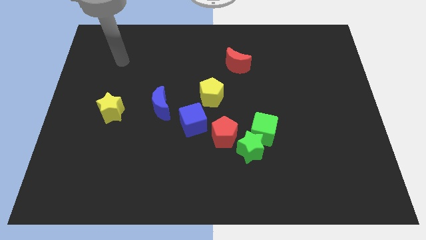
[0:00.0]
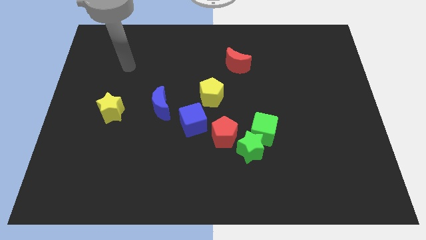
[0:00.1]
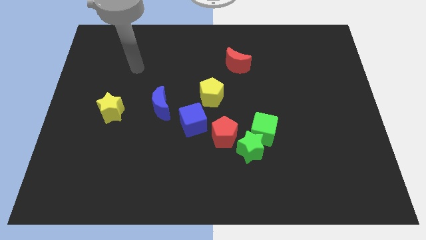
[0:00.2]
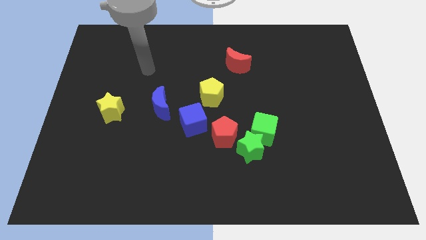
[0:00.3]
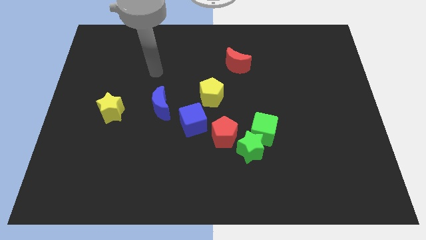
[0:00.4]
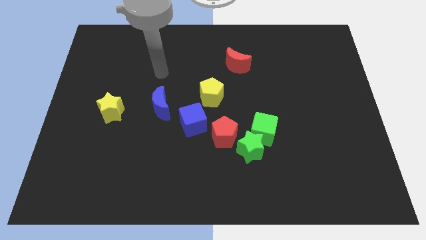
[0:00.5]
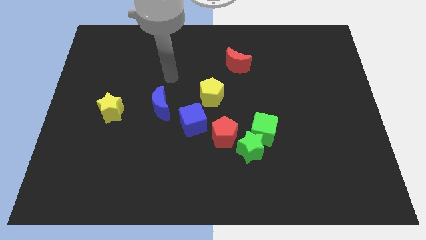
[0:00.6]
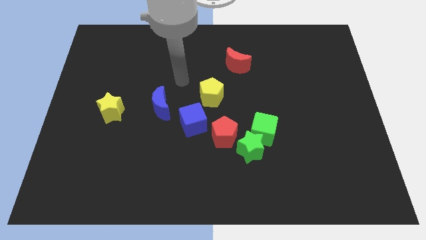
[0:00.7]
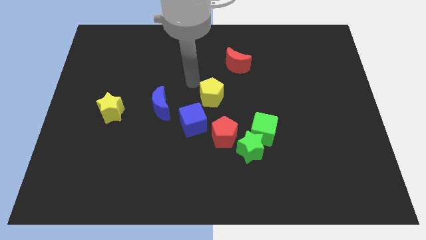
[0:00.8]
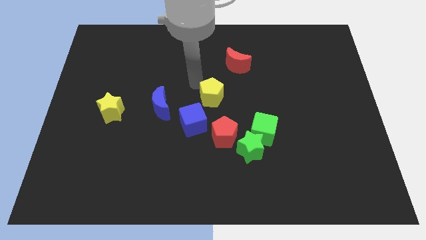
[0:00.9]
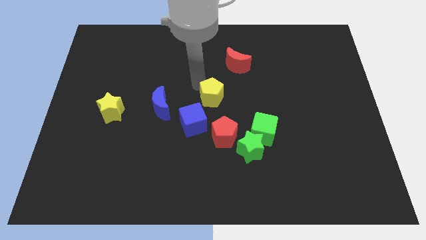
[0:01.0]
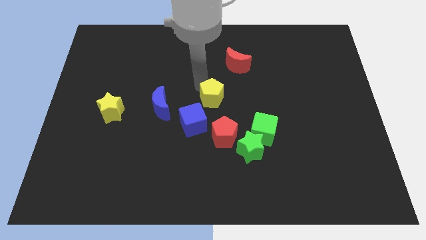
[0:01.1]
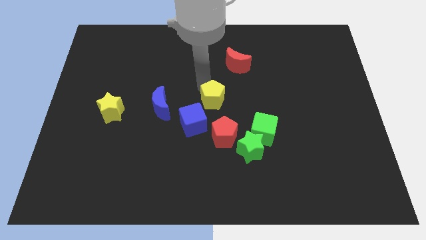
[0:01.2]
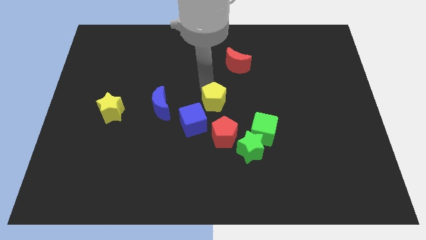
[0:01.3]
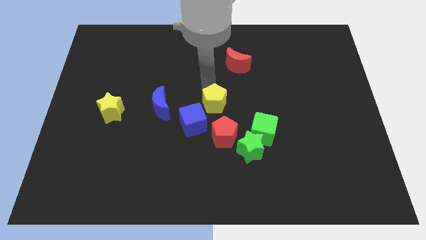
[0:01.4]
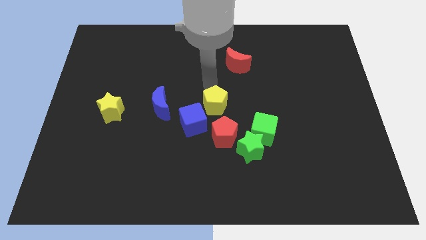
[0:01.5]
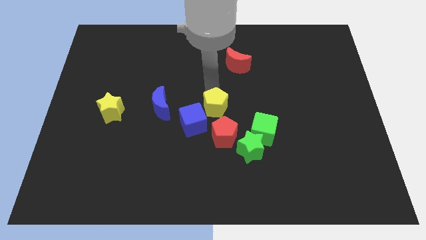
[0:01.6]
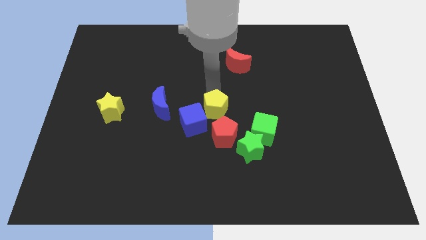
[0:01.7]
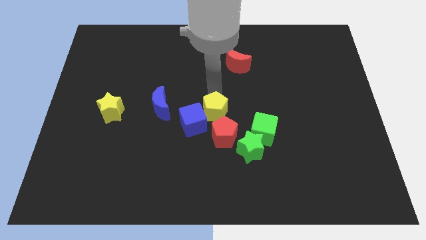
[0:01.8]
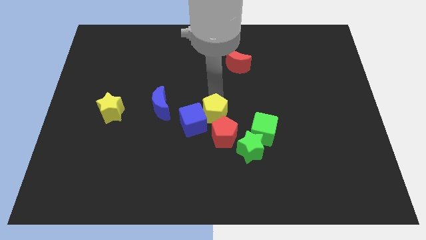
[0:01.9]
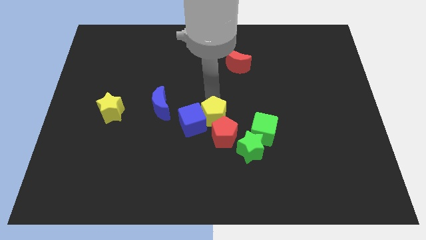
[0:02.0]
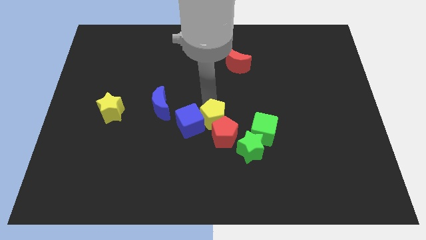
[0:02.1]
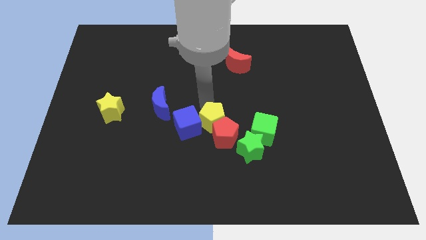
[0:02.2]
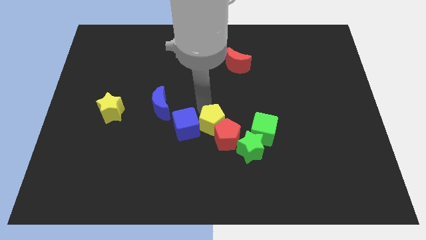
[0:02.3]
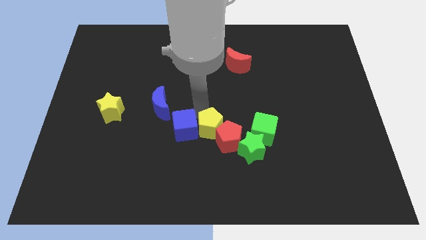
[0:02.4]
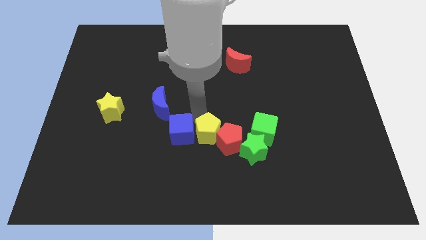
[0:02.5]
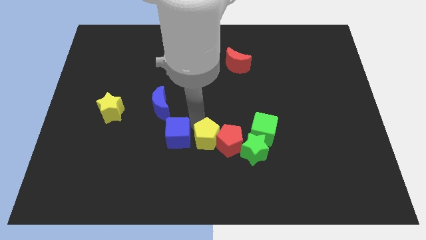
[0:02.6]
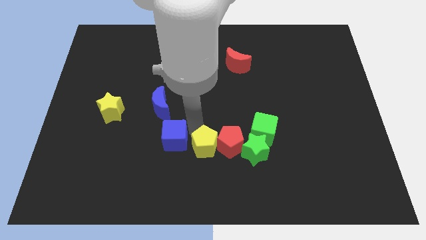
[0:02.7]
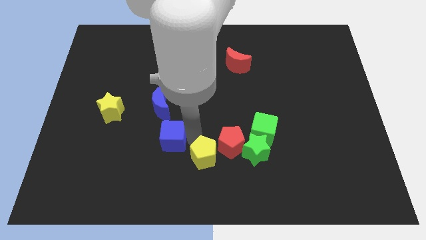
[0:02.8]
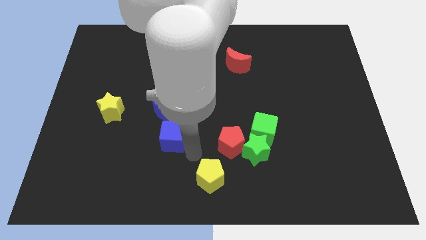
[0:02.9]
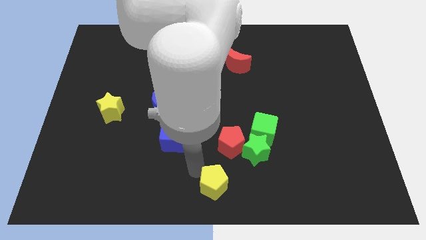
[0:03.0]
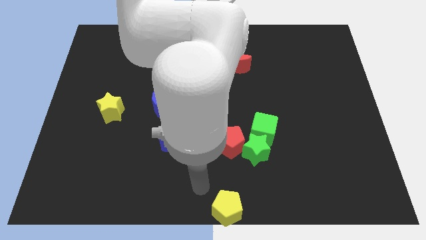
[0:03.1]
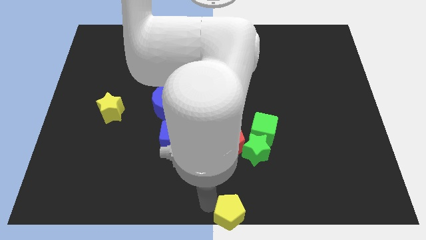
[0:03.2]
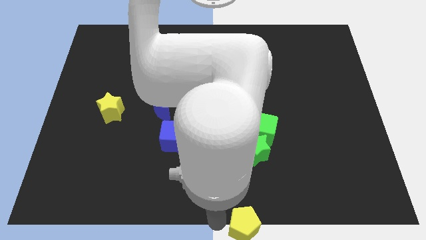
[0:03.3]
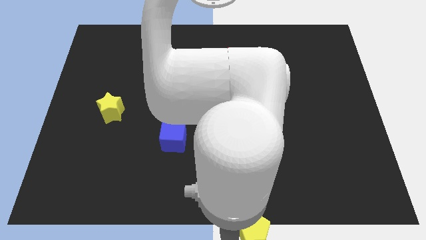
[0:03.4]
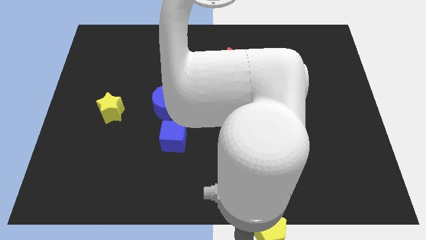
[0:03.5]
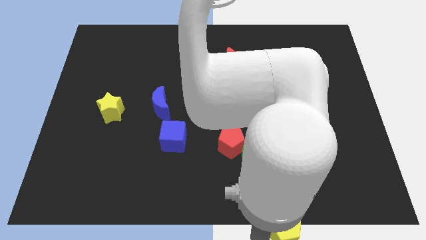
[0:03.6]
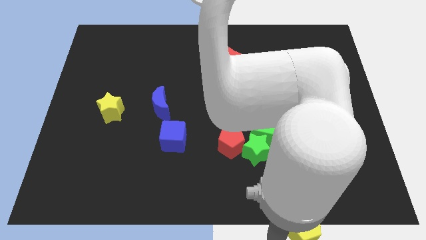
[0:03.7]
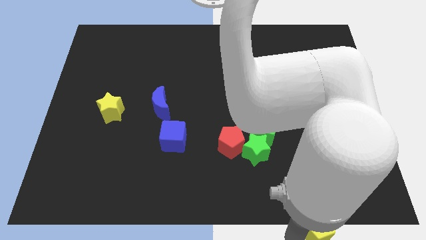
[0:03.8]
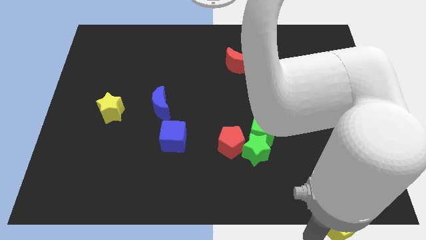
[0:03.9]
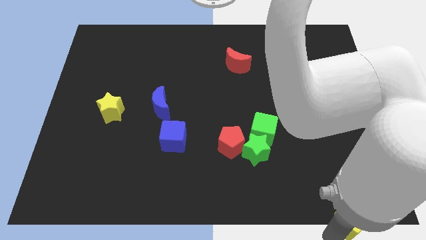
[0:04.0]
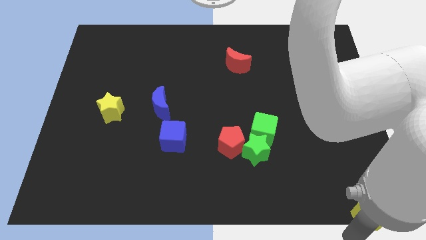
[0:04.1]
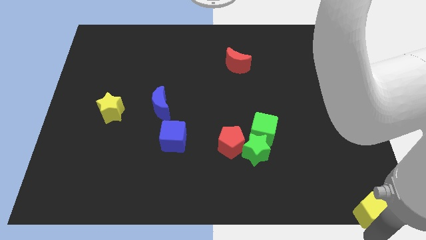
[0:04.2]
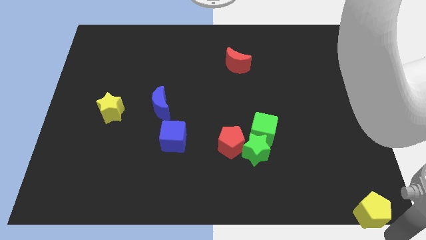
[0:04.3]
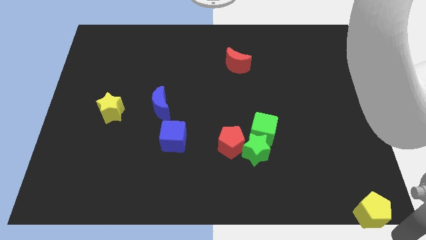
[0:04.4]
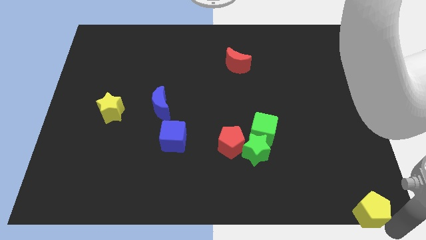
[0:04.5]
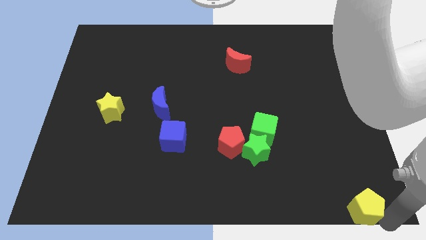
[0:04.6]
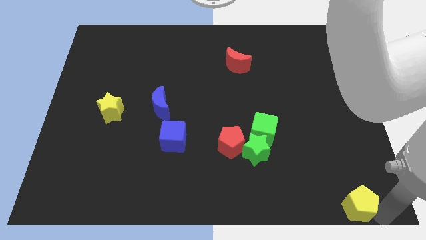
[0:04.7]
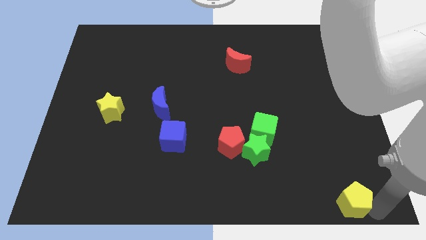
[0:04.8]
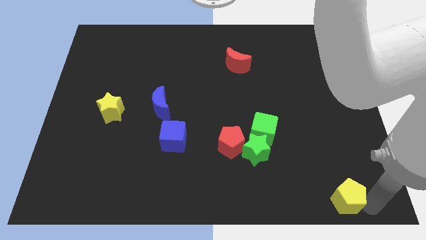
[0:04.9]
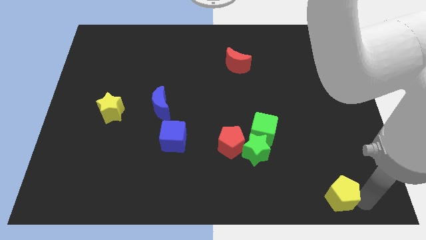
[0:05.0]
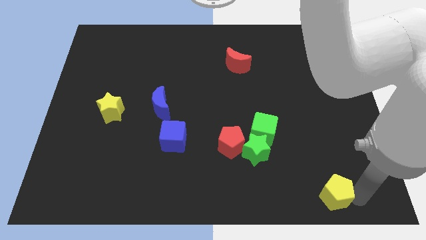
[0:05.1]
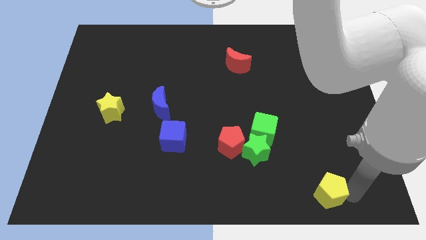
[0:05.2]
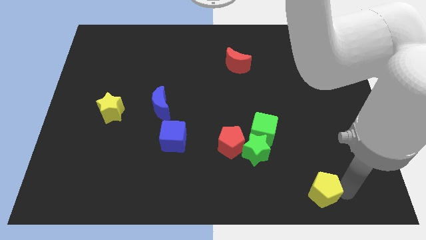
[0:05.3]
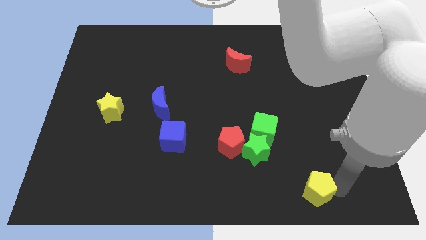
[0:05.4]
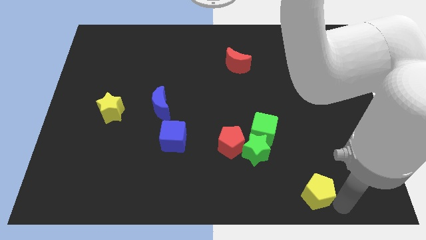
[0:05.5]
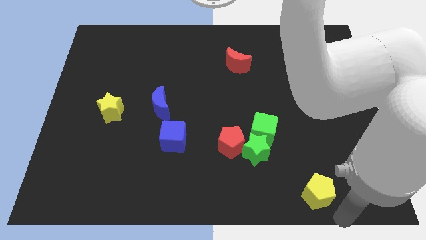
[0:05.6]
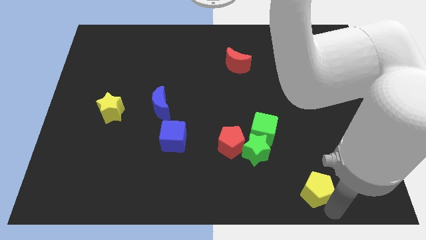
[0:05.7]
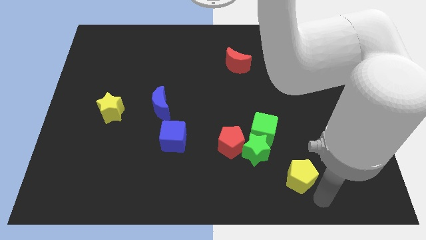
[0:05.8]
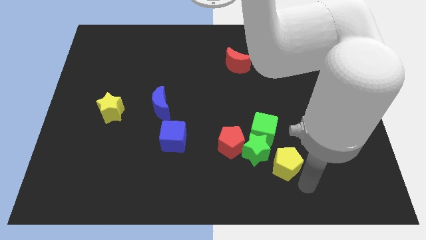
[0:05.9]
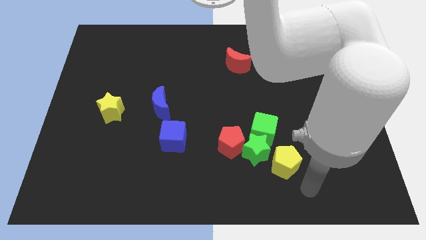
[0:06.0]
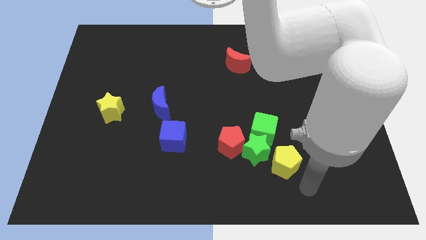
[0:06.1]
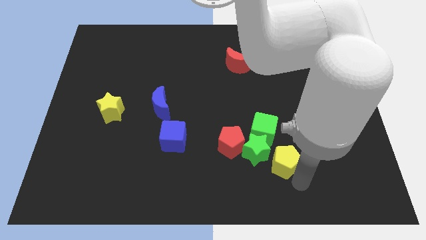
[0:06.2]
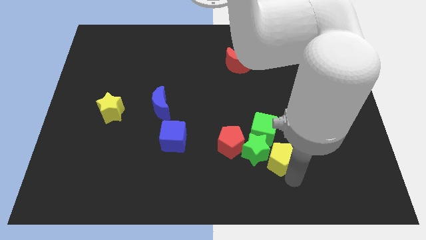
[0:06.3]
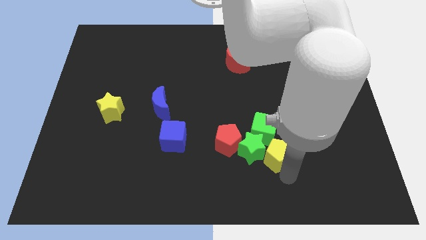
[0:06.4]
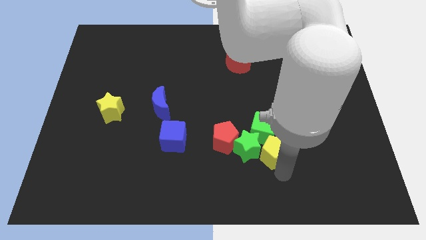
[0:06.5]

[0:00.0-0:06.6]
put the yellow pentagon close to the green cube

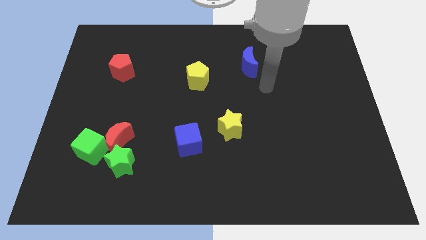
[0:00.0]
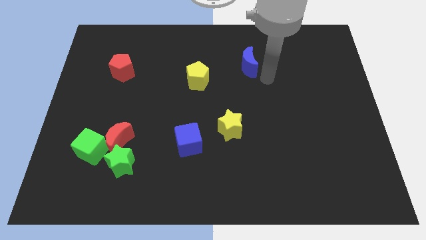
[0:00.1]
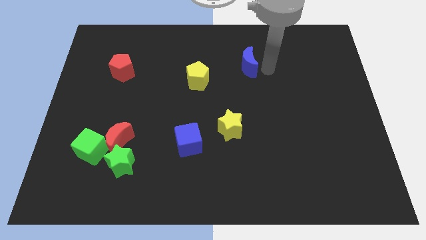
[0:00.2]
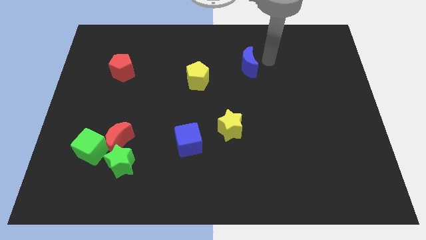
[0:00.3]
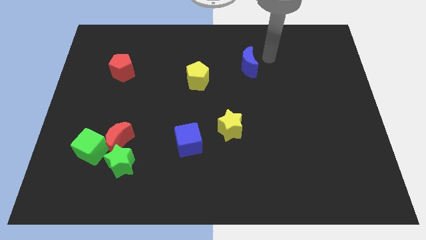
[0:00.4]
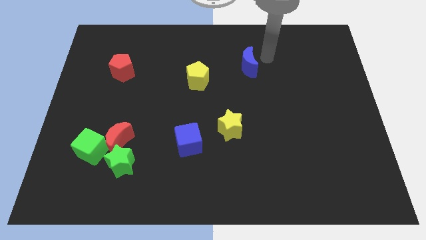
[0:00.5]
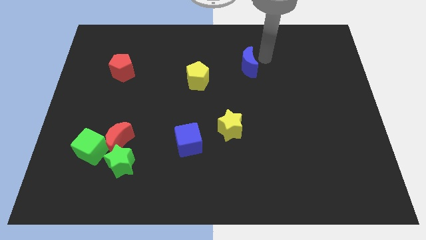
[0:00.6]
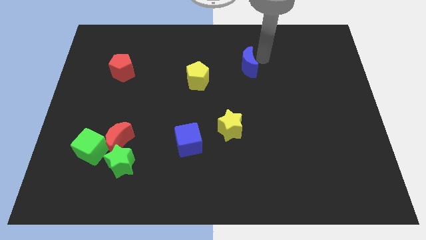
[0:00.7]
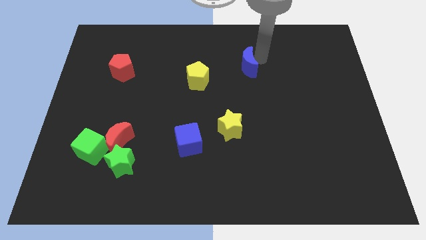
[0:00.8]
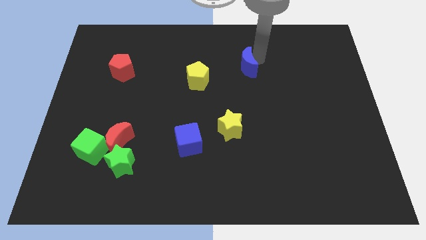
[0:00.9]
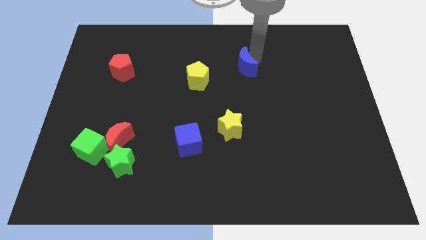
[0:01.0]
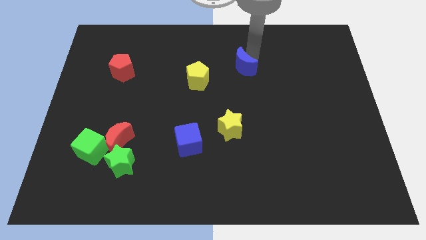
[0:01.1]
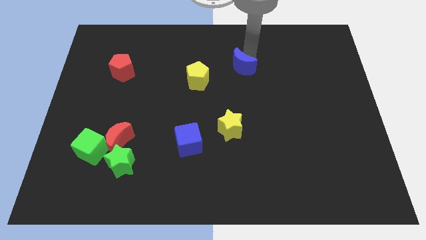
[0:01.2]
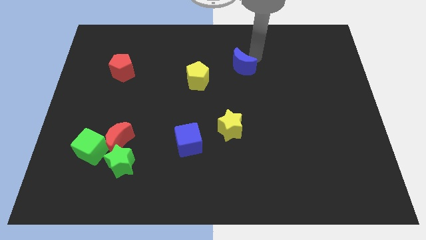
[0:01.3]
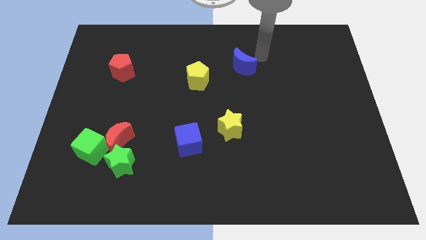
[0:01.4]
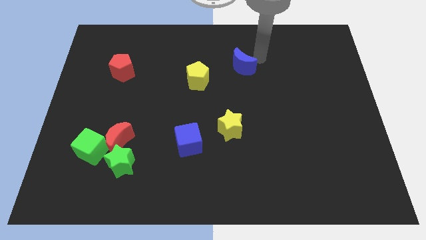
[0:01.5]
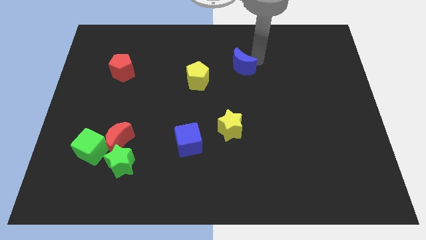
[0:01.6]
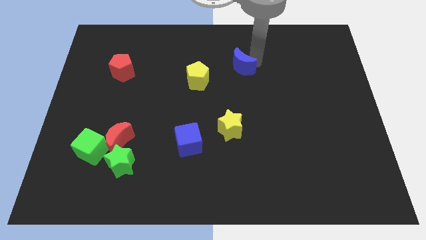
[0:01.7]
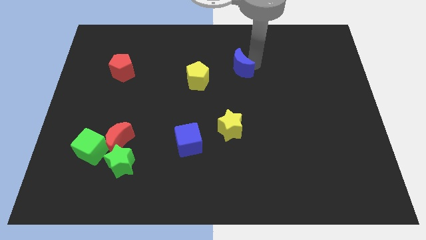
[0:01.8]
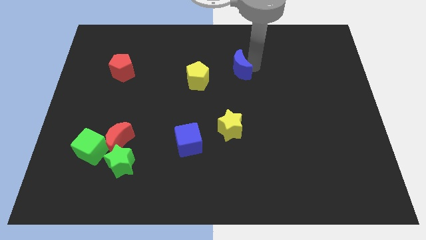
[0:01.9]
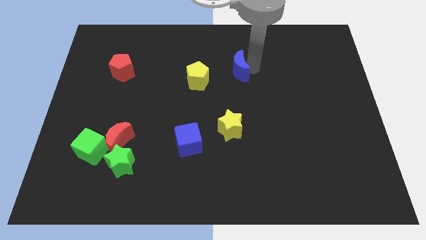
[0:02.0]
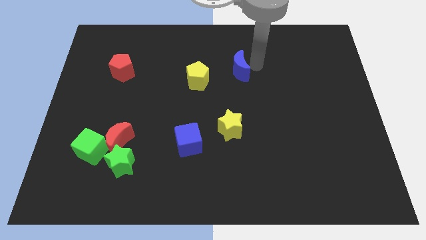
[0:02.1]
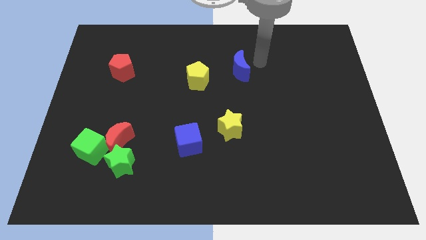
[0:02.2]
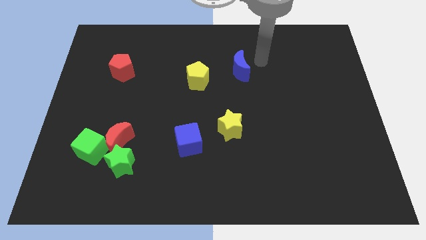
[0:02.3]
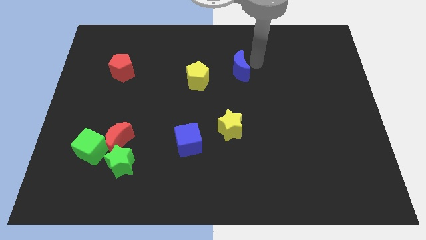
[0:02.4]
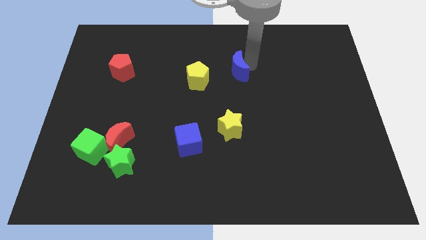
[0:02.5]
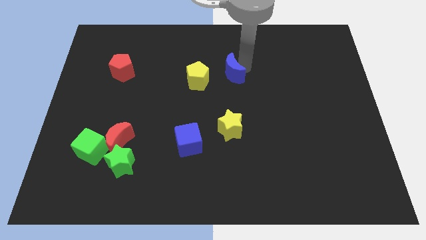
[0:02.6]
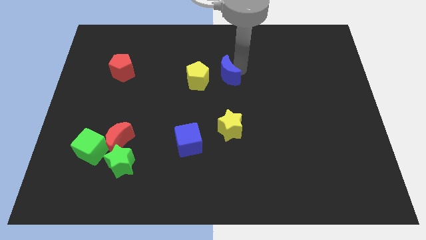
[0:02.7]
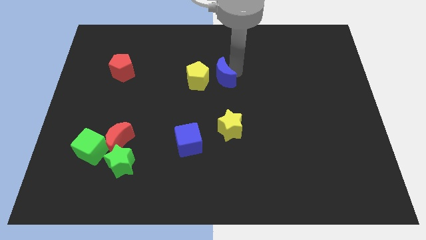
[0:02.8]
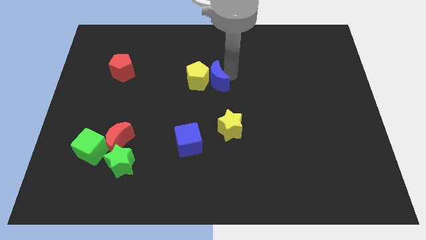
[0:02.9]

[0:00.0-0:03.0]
move the blue moon close to the yellow pentagon
